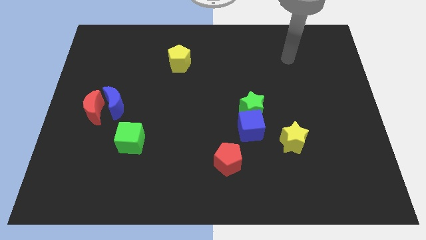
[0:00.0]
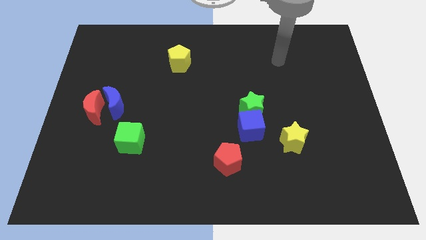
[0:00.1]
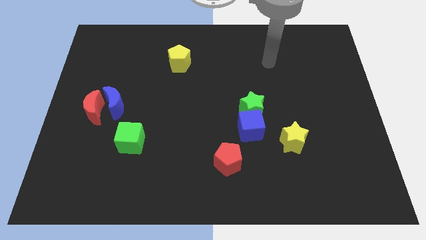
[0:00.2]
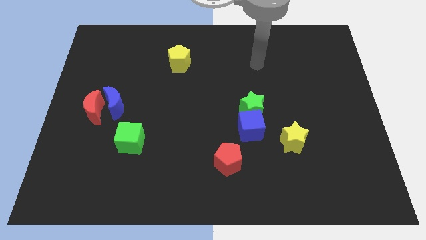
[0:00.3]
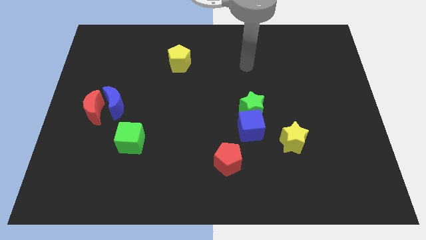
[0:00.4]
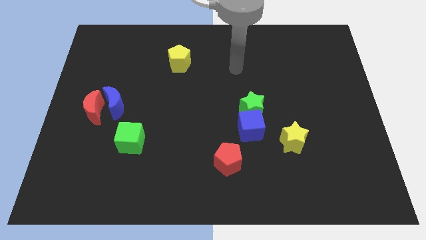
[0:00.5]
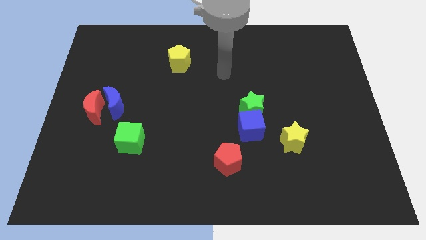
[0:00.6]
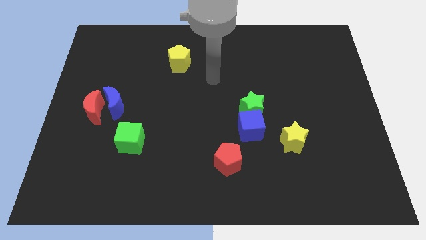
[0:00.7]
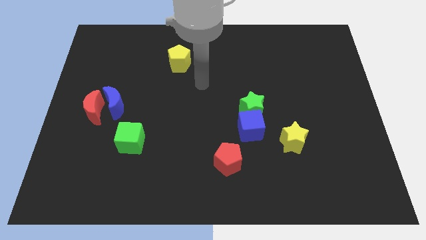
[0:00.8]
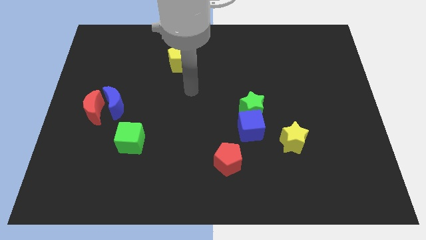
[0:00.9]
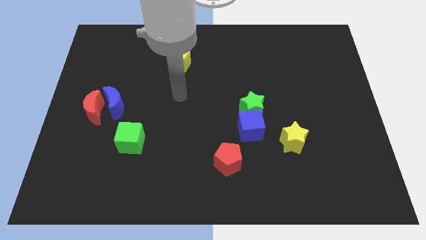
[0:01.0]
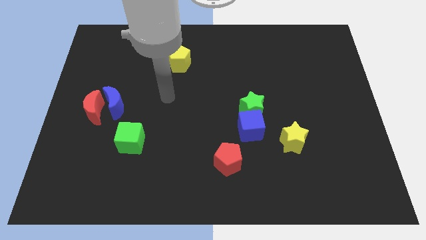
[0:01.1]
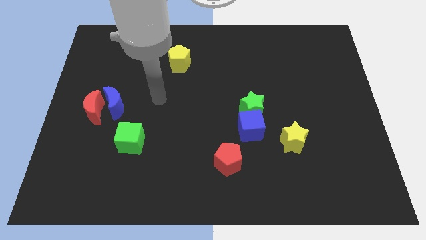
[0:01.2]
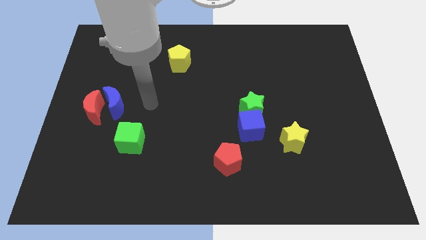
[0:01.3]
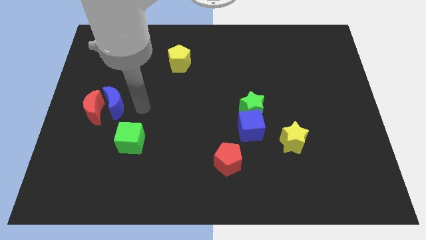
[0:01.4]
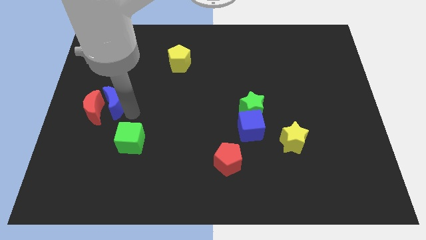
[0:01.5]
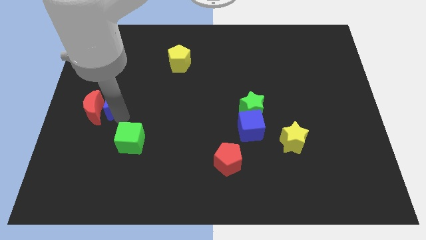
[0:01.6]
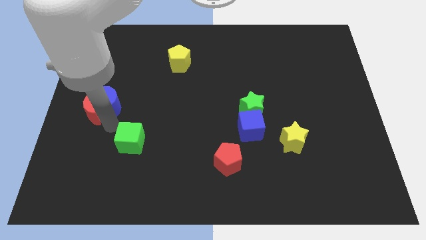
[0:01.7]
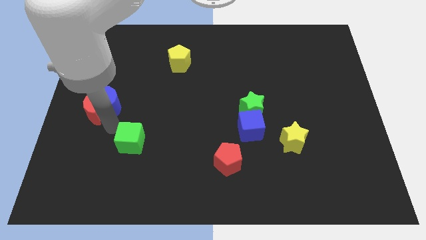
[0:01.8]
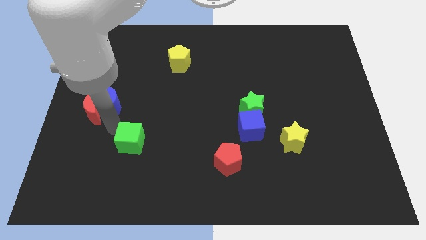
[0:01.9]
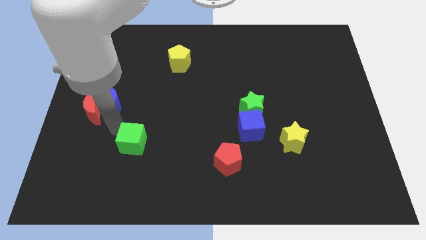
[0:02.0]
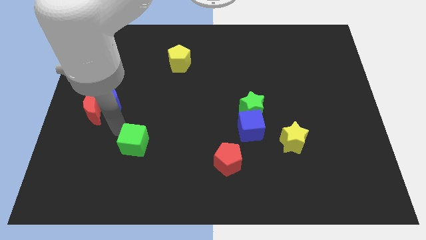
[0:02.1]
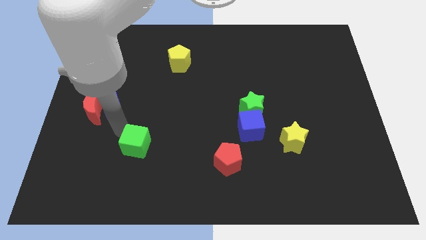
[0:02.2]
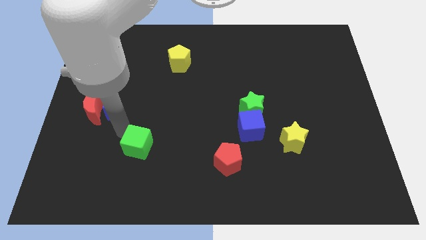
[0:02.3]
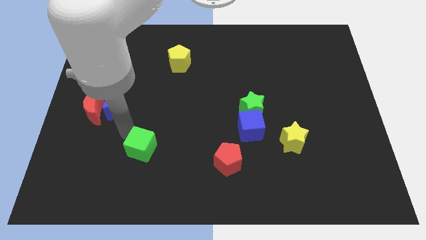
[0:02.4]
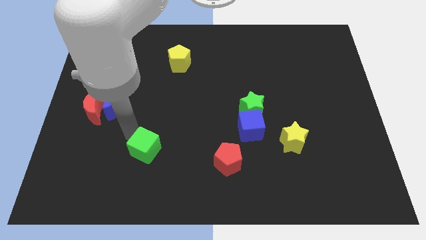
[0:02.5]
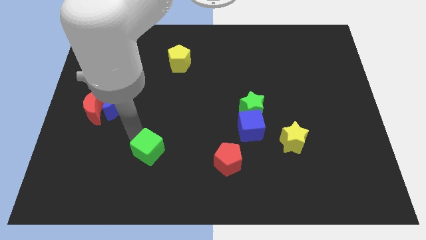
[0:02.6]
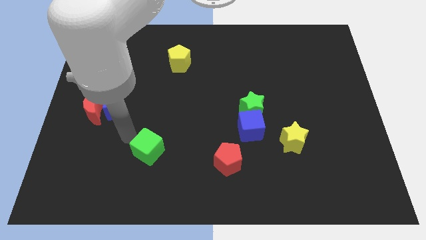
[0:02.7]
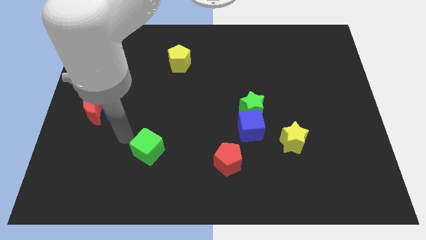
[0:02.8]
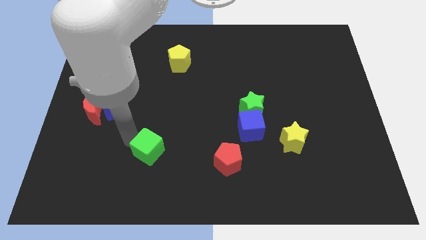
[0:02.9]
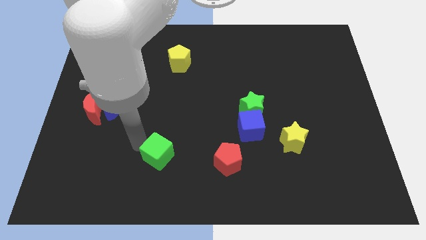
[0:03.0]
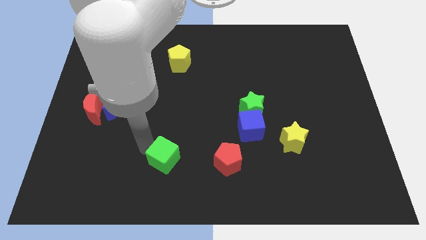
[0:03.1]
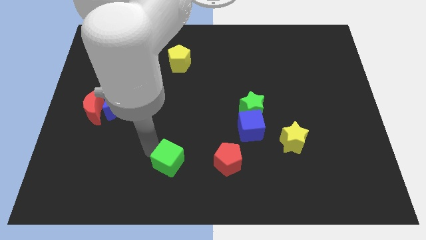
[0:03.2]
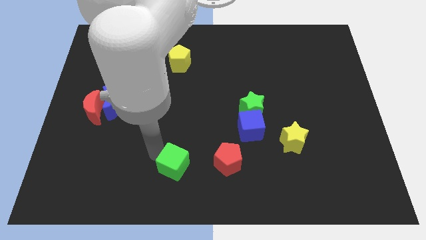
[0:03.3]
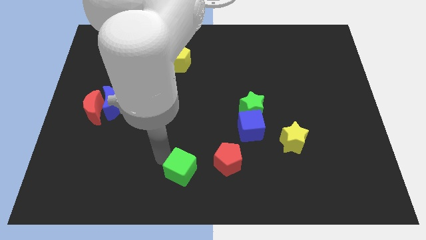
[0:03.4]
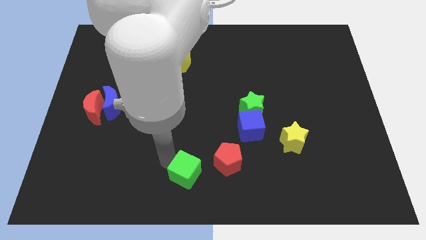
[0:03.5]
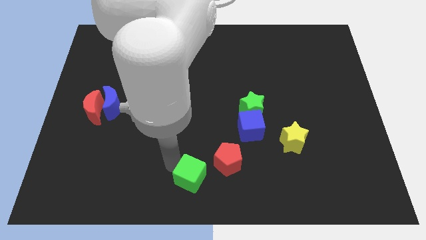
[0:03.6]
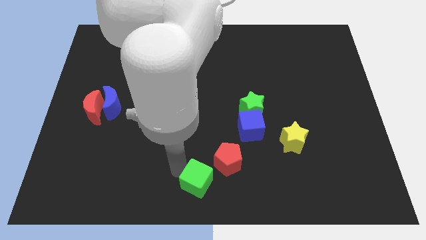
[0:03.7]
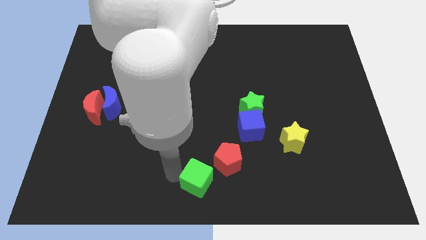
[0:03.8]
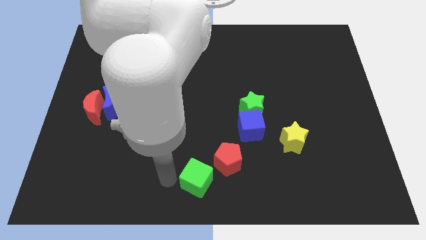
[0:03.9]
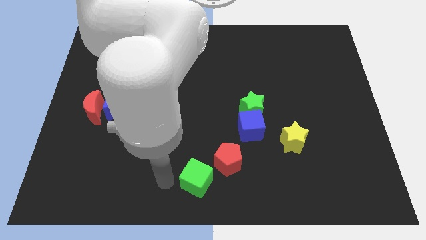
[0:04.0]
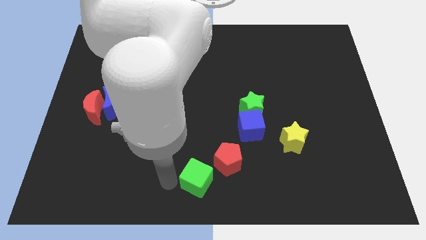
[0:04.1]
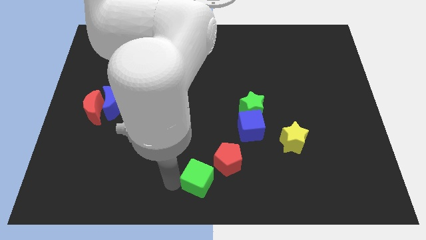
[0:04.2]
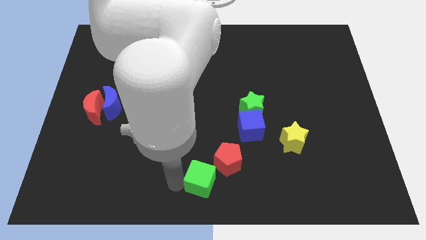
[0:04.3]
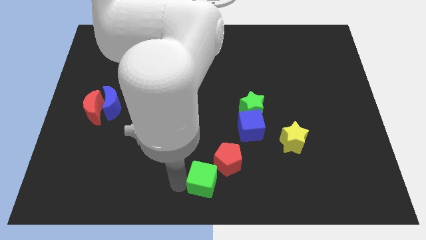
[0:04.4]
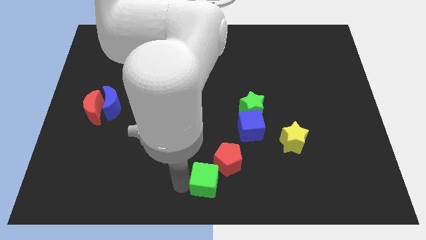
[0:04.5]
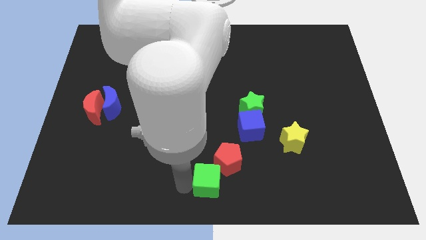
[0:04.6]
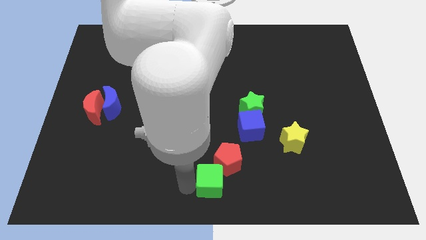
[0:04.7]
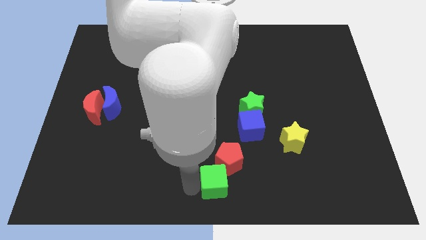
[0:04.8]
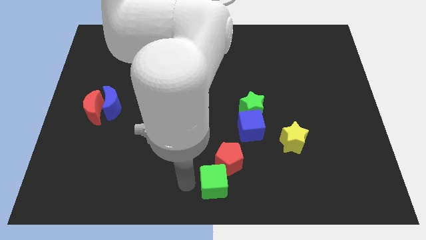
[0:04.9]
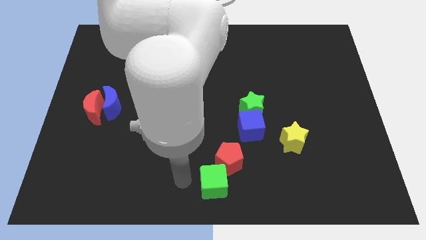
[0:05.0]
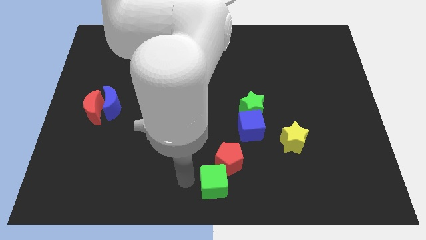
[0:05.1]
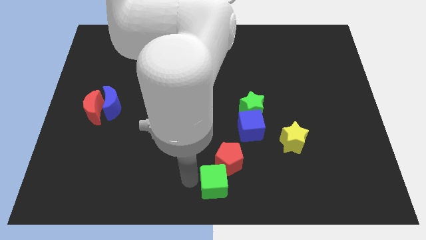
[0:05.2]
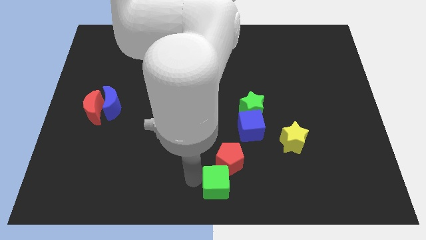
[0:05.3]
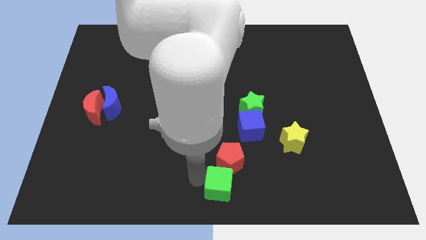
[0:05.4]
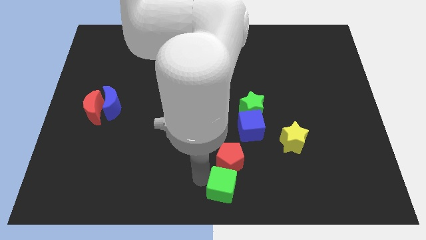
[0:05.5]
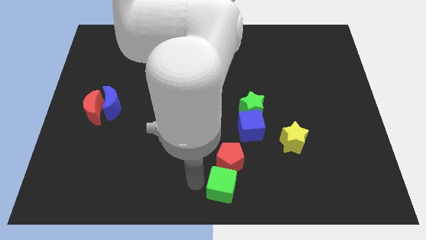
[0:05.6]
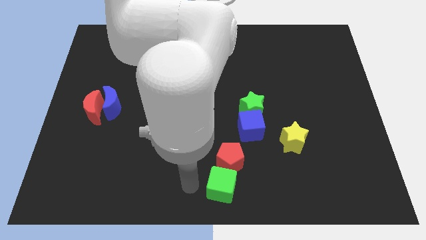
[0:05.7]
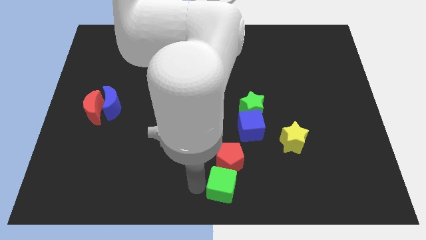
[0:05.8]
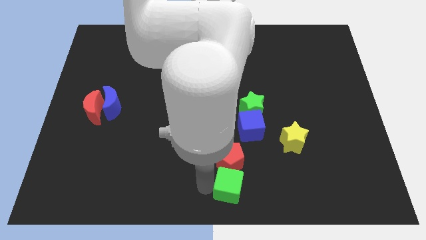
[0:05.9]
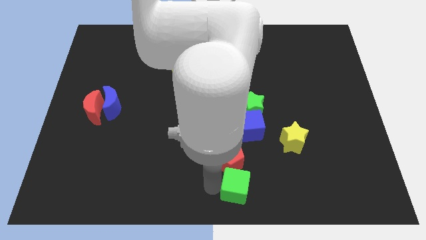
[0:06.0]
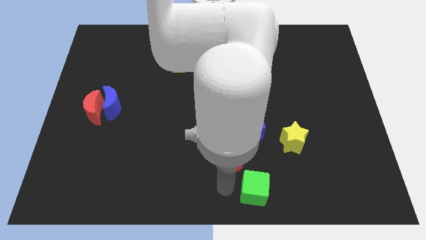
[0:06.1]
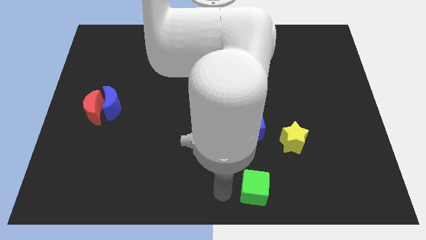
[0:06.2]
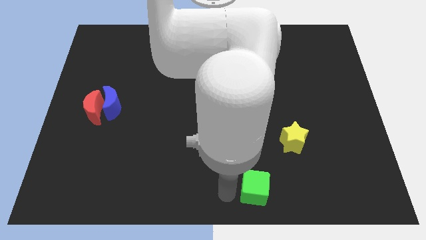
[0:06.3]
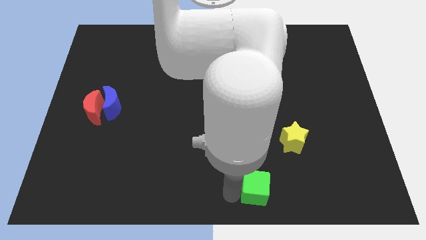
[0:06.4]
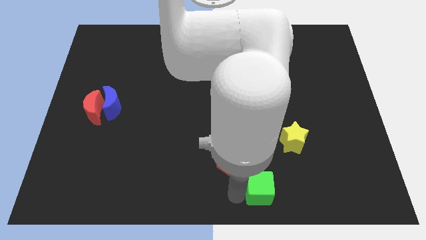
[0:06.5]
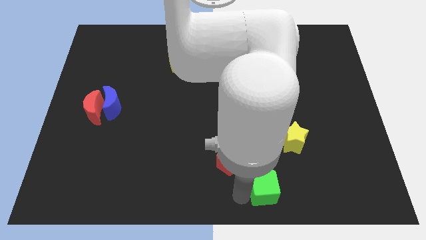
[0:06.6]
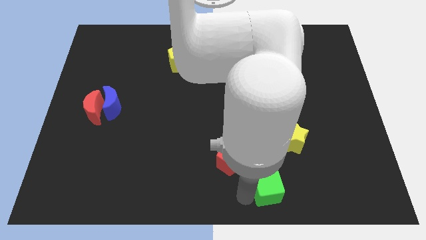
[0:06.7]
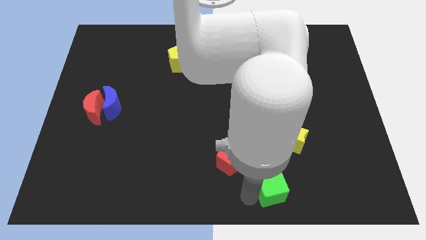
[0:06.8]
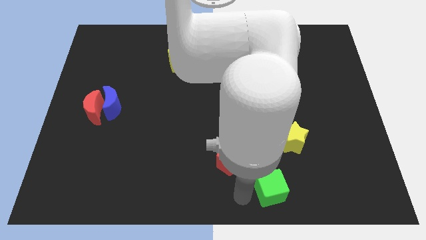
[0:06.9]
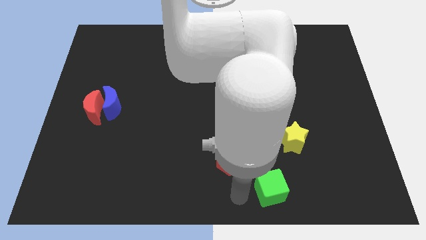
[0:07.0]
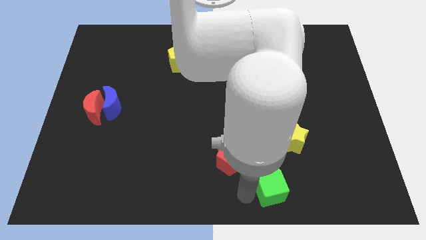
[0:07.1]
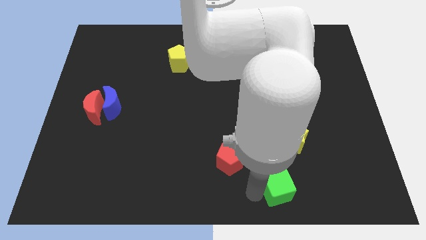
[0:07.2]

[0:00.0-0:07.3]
move the green cube below the yellow star
